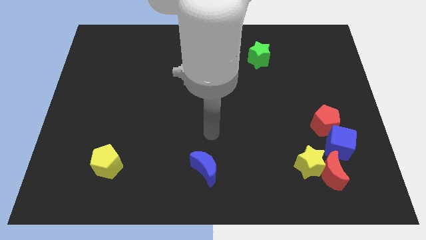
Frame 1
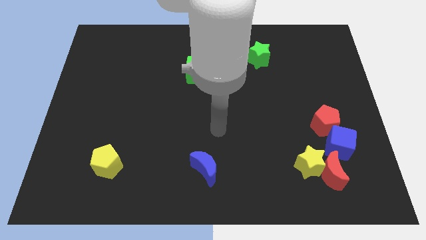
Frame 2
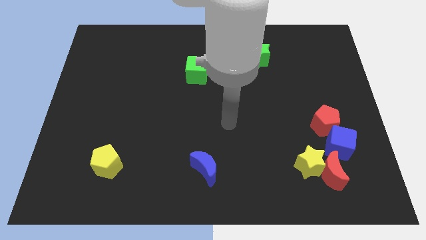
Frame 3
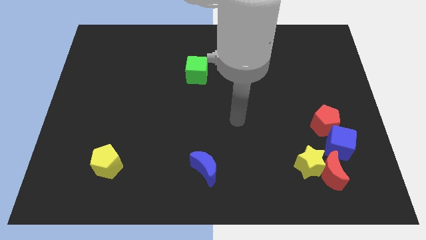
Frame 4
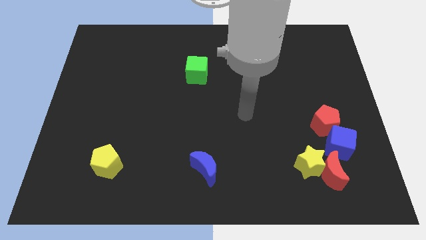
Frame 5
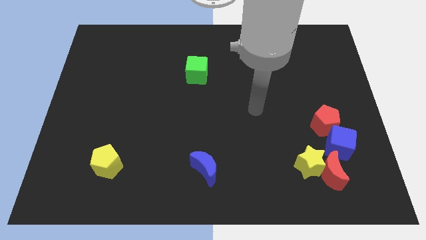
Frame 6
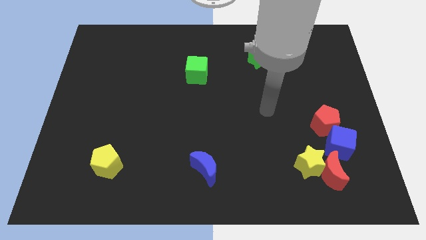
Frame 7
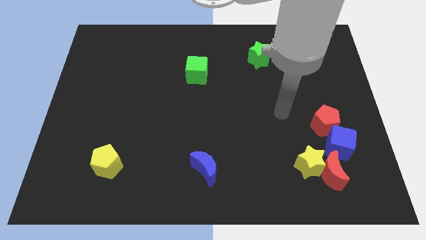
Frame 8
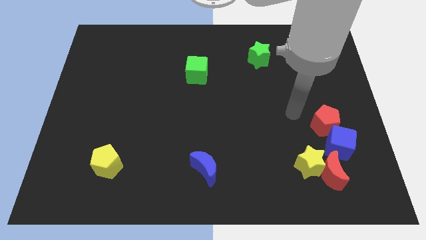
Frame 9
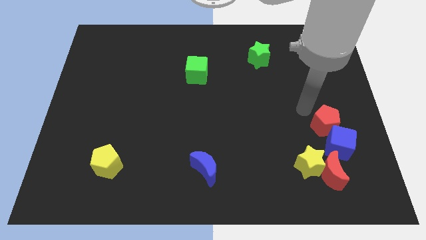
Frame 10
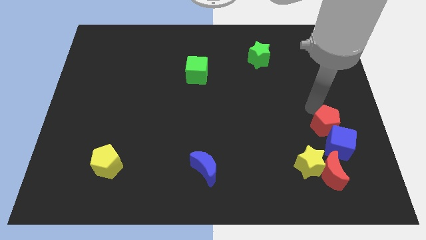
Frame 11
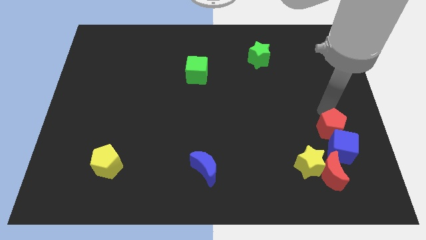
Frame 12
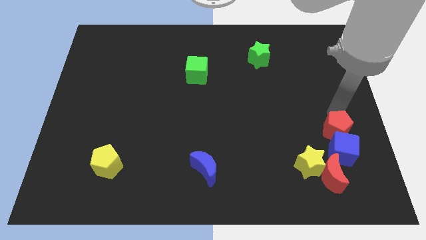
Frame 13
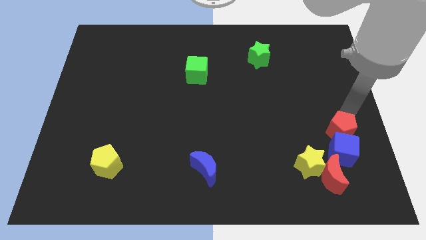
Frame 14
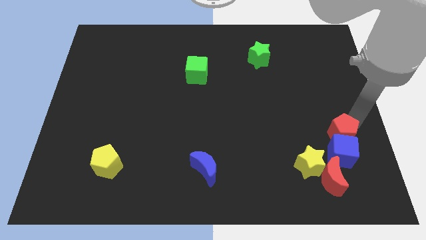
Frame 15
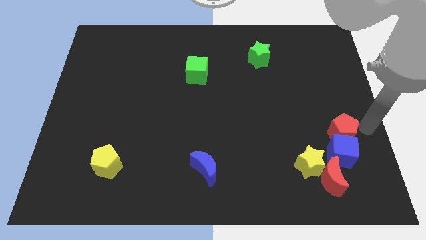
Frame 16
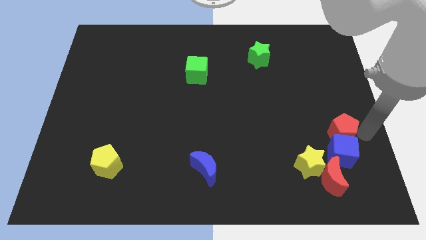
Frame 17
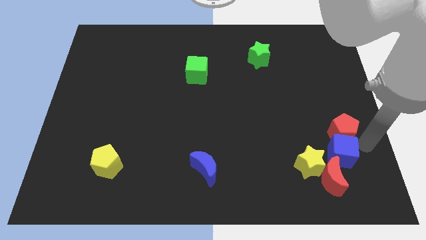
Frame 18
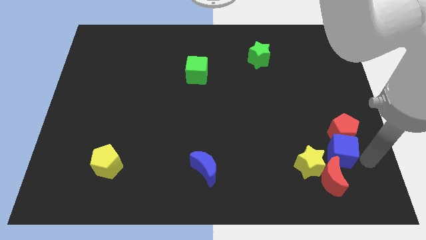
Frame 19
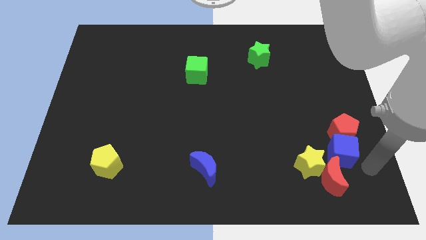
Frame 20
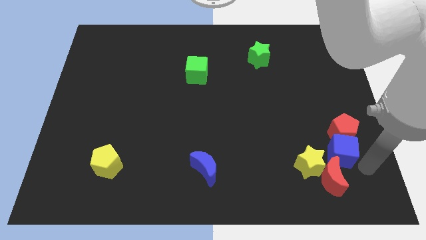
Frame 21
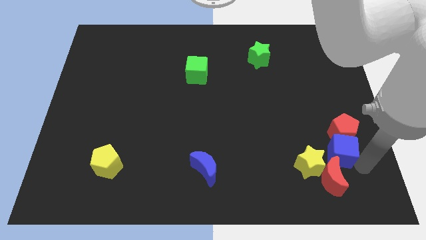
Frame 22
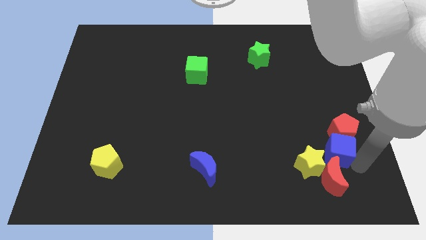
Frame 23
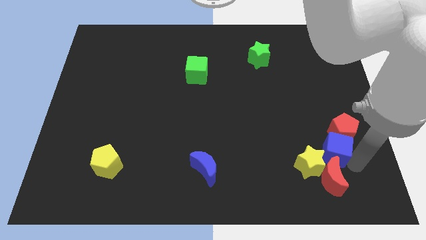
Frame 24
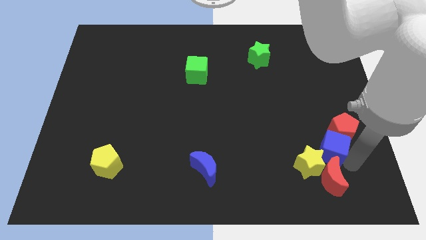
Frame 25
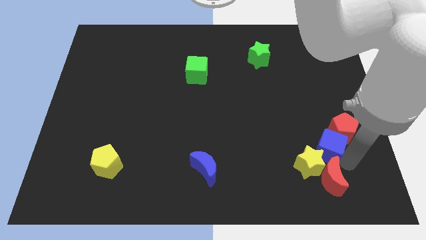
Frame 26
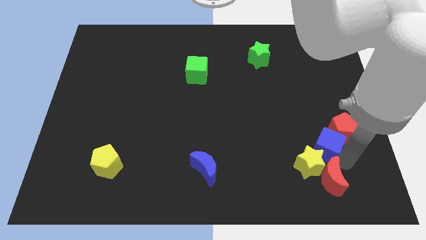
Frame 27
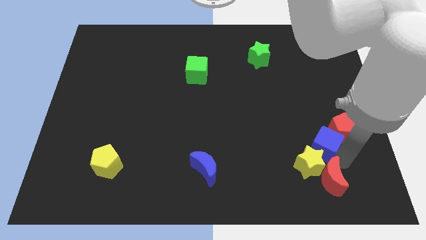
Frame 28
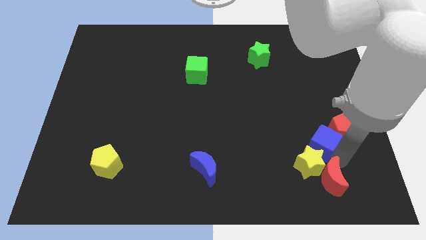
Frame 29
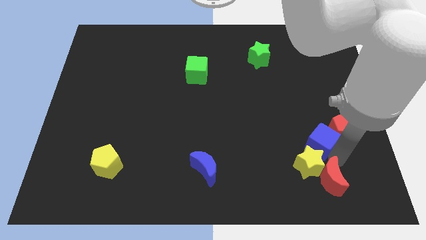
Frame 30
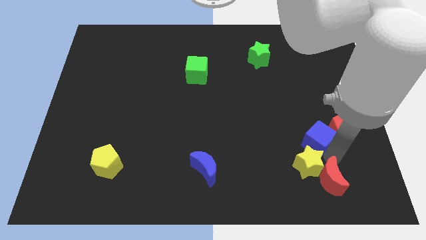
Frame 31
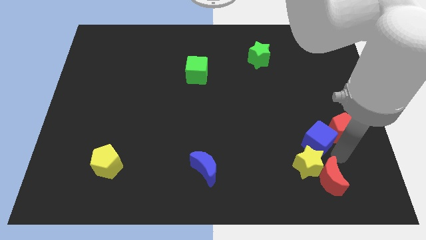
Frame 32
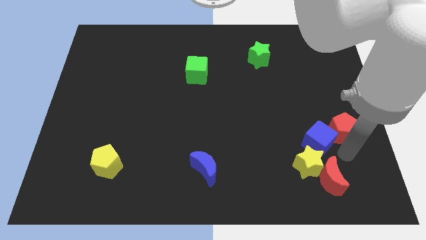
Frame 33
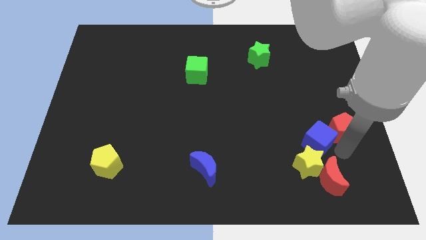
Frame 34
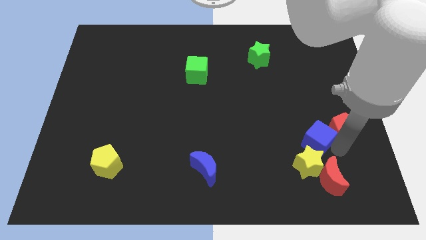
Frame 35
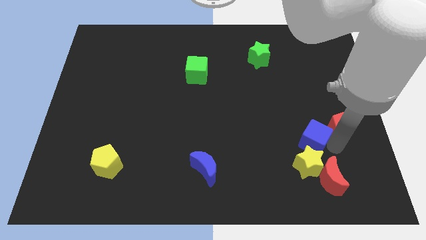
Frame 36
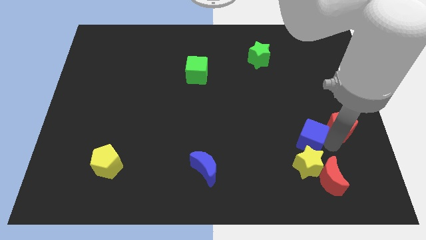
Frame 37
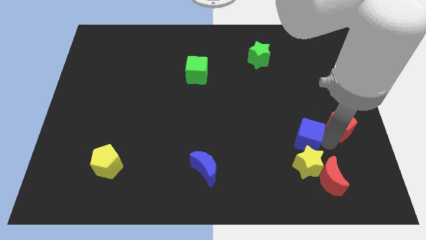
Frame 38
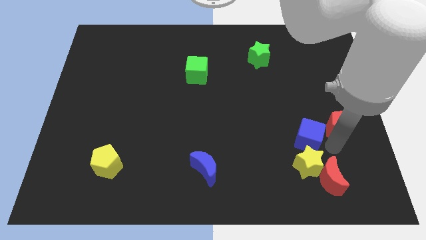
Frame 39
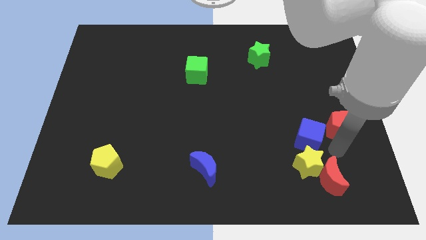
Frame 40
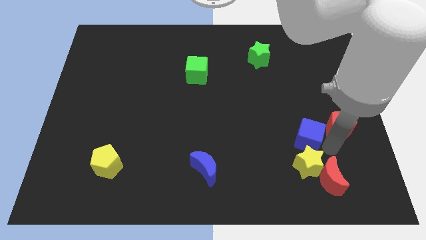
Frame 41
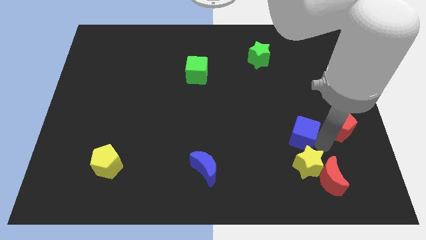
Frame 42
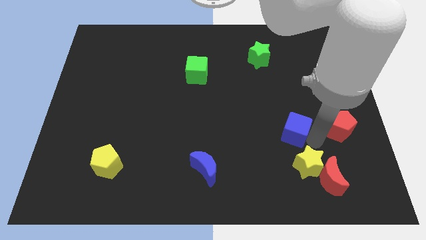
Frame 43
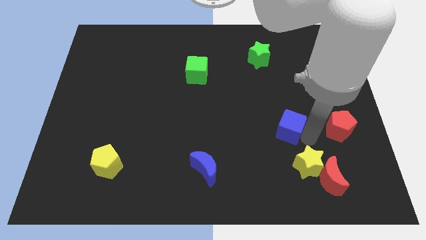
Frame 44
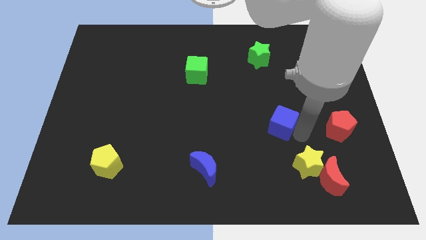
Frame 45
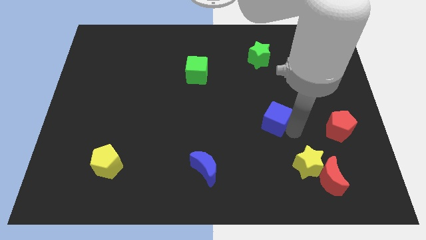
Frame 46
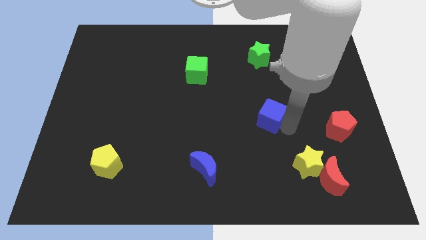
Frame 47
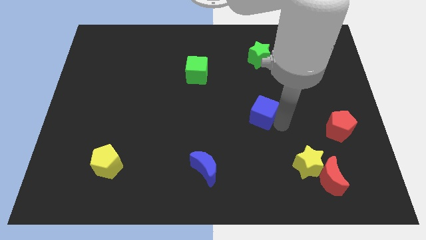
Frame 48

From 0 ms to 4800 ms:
put the blue cube to the middle of the board

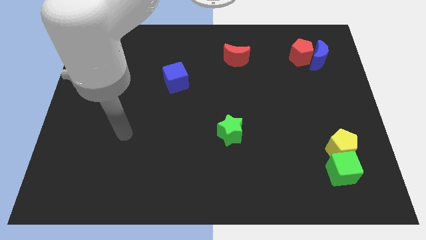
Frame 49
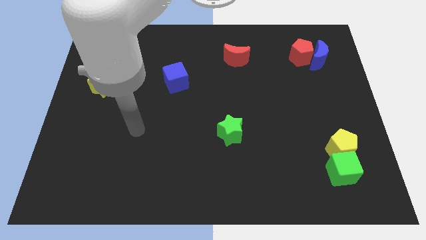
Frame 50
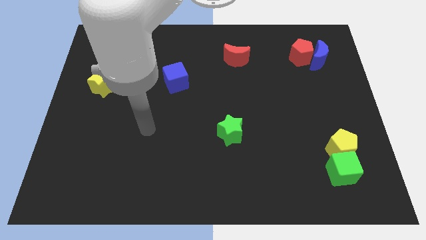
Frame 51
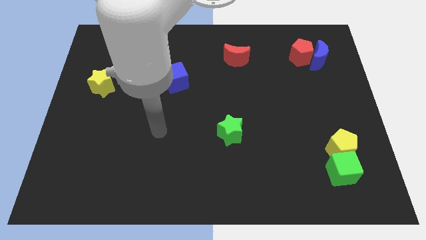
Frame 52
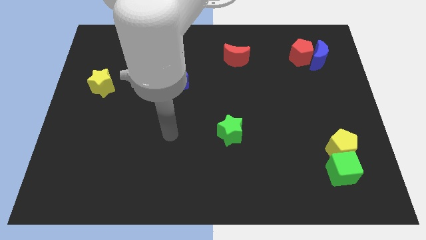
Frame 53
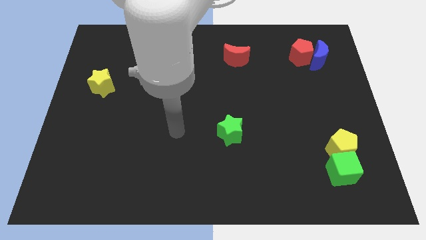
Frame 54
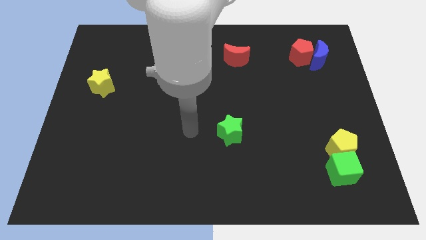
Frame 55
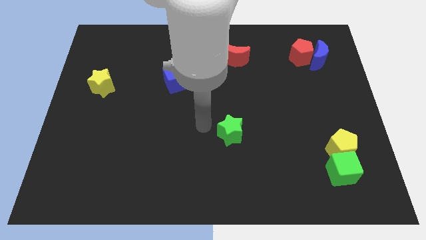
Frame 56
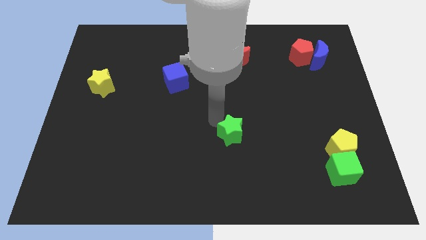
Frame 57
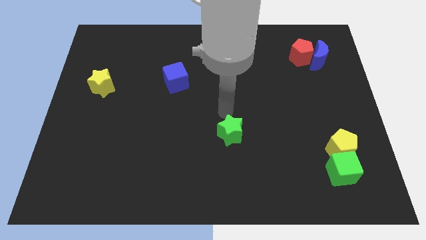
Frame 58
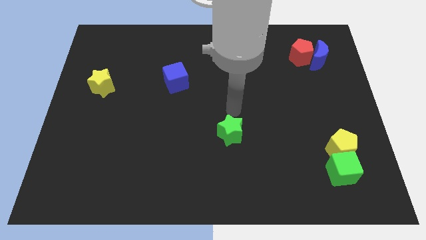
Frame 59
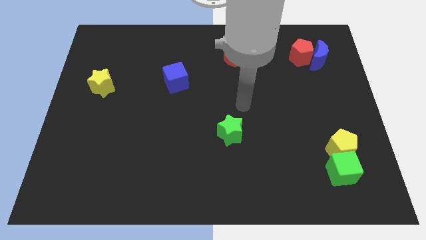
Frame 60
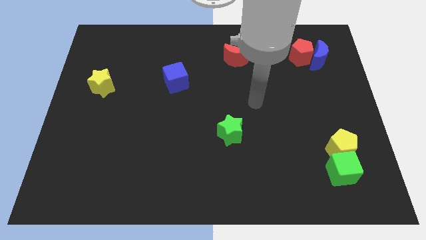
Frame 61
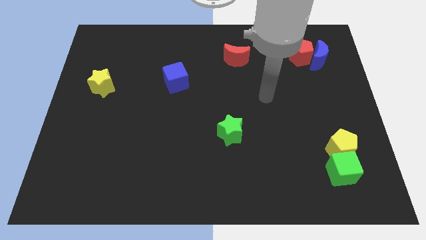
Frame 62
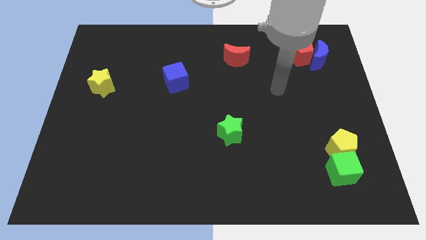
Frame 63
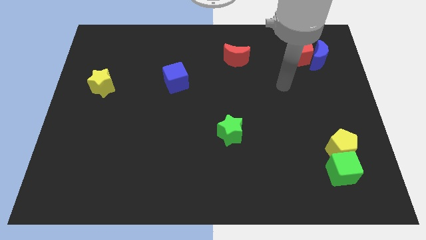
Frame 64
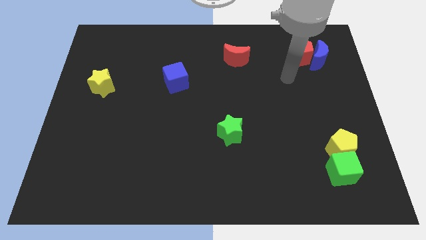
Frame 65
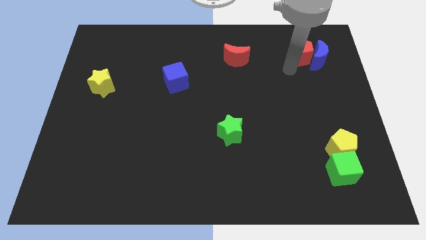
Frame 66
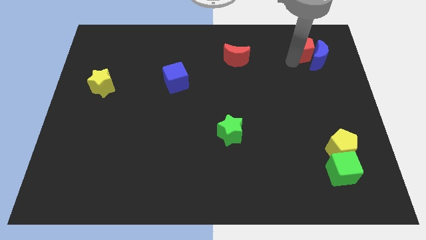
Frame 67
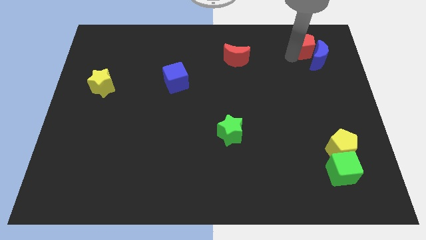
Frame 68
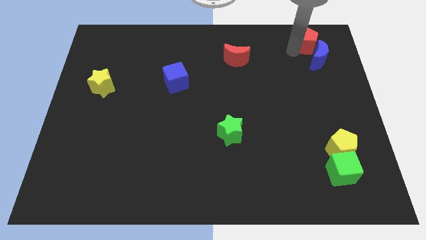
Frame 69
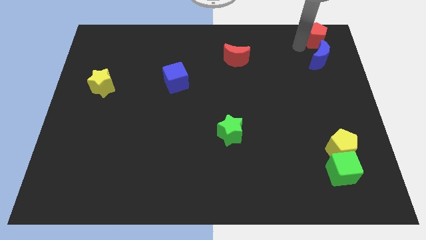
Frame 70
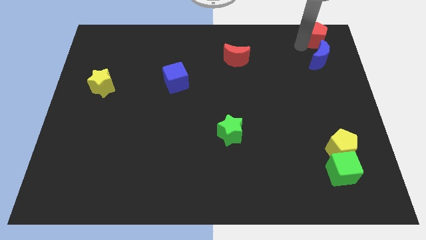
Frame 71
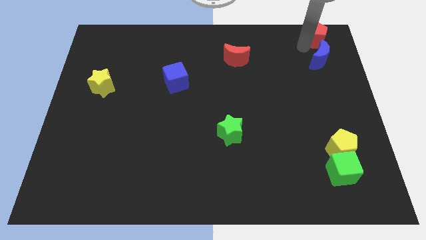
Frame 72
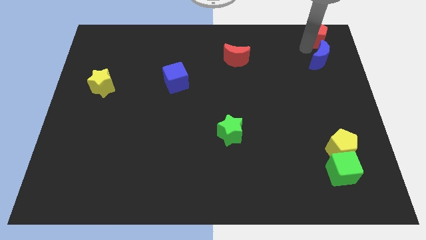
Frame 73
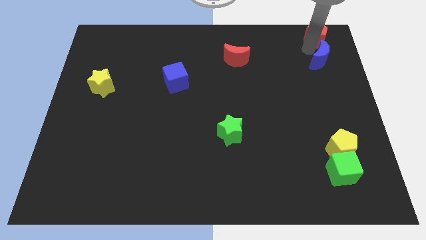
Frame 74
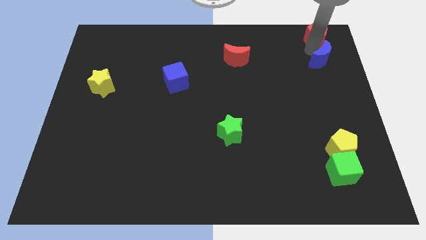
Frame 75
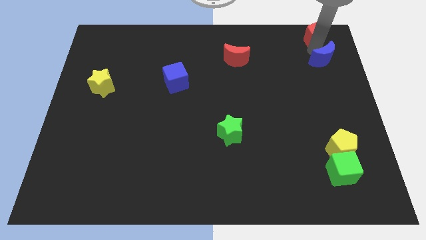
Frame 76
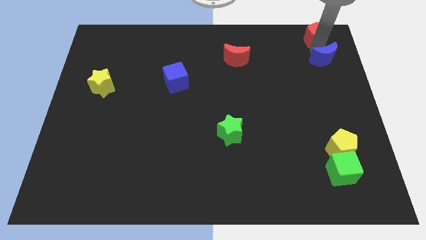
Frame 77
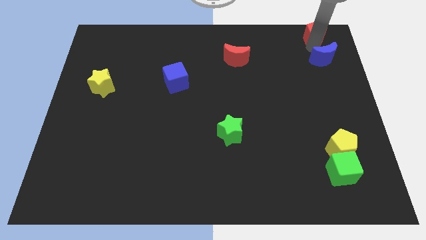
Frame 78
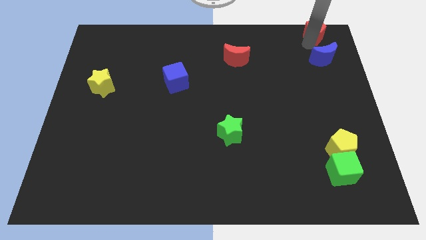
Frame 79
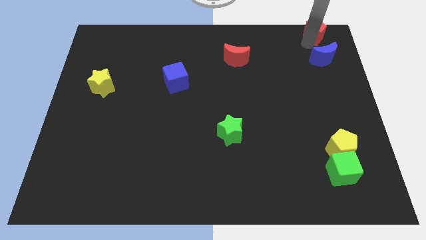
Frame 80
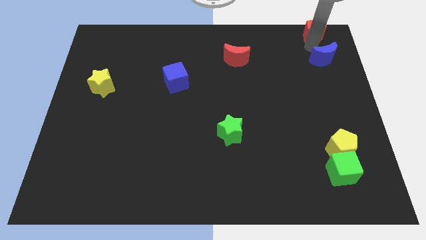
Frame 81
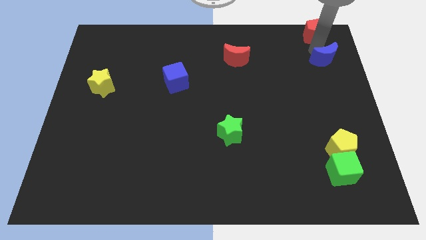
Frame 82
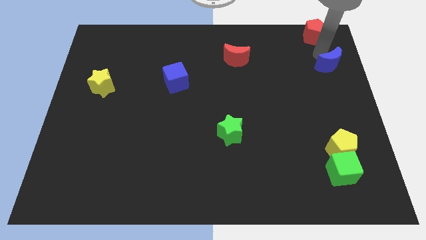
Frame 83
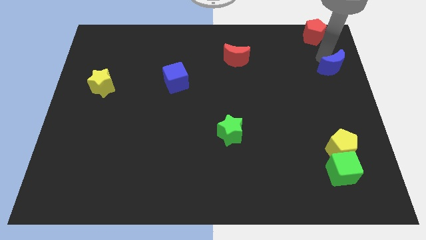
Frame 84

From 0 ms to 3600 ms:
move the blue moon to the center right

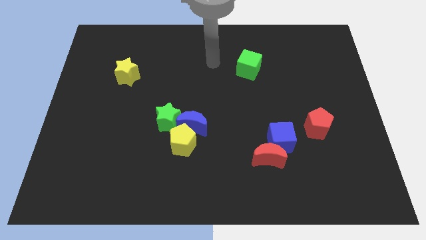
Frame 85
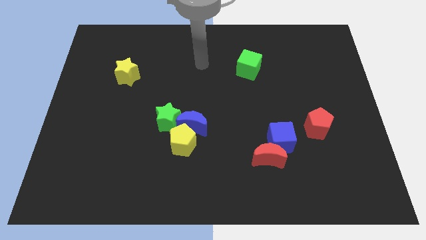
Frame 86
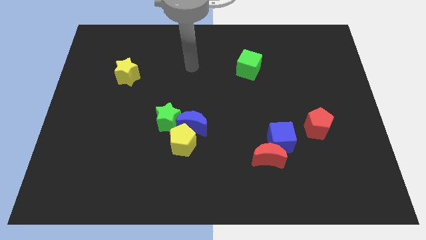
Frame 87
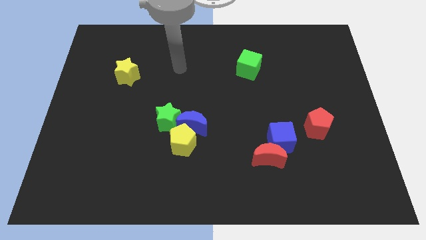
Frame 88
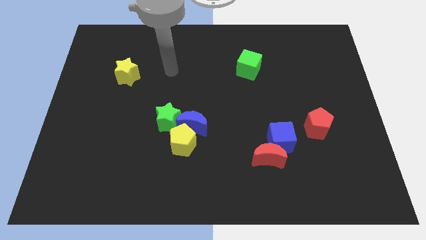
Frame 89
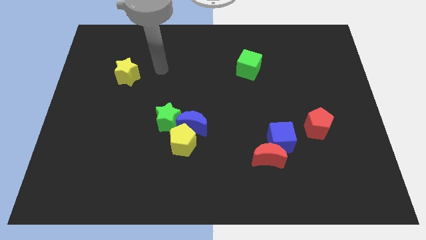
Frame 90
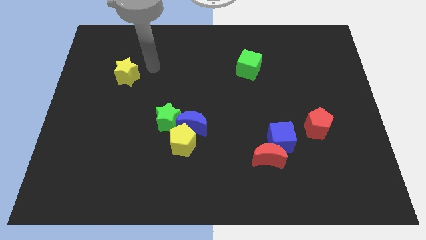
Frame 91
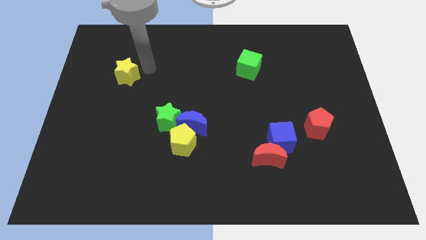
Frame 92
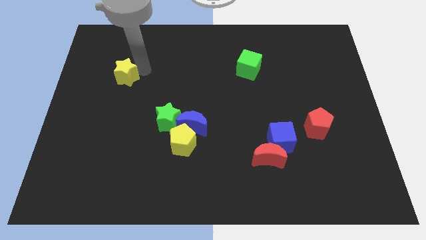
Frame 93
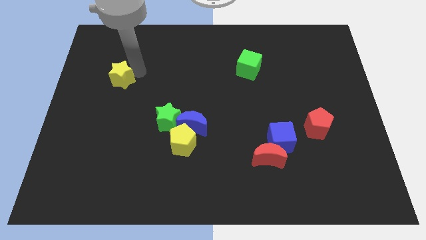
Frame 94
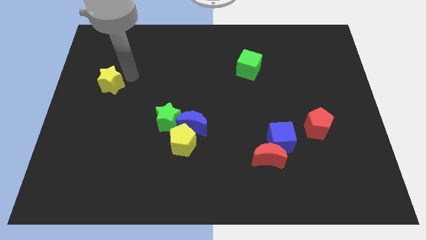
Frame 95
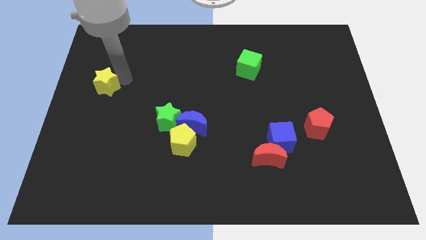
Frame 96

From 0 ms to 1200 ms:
slide the yellow star to the left side of the board
